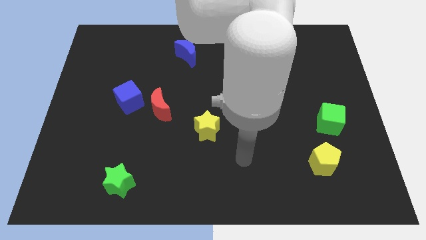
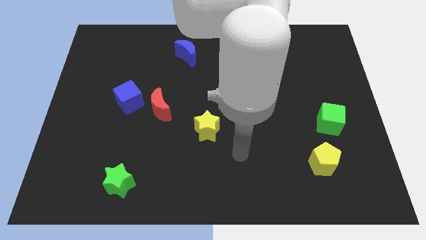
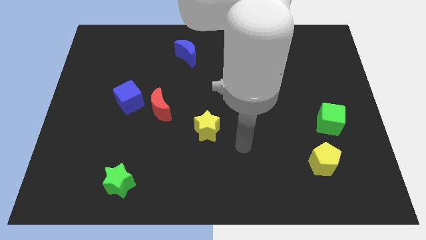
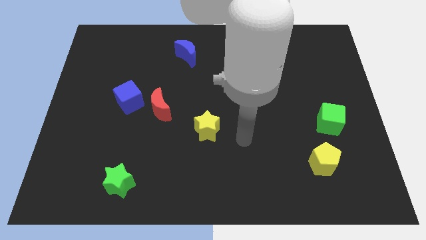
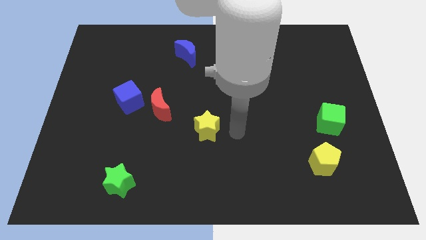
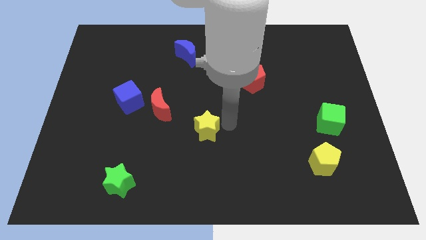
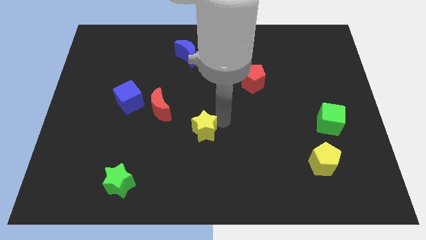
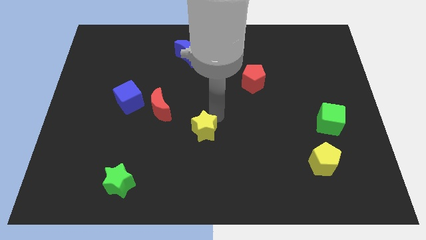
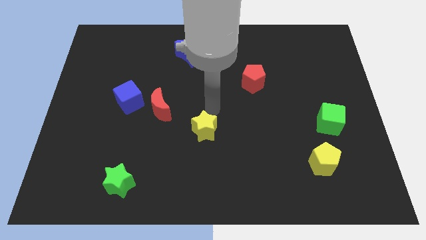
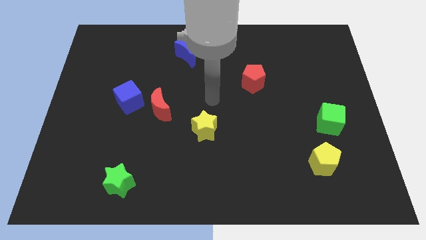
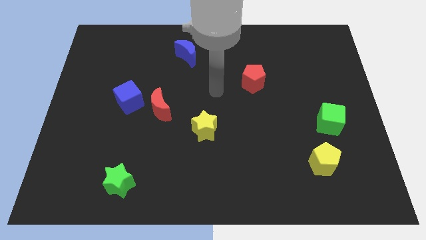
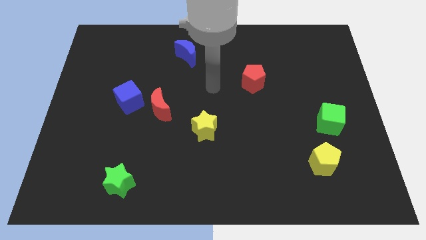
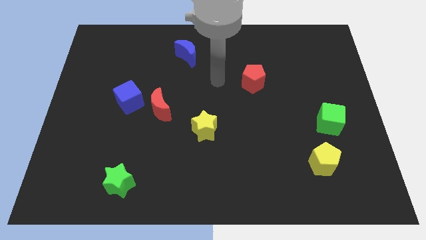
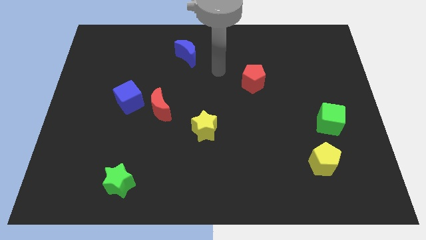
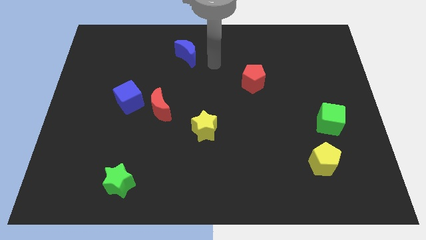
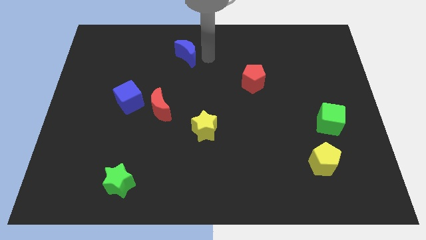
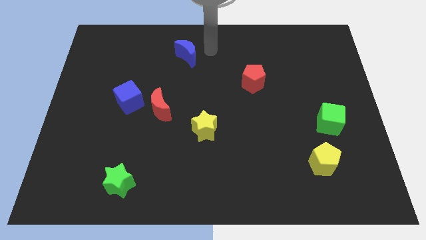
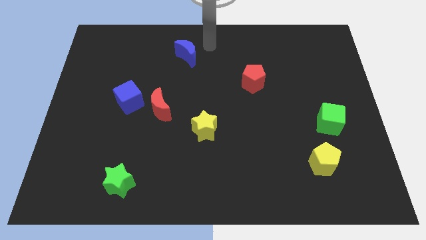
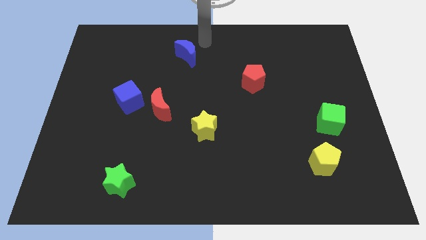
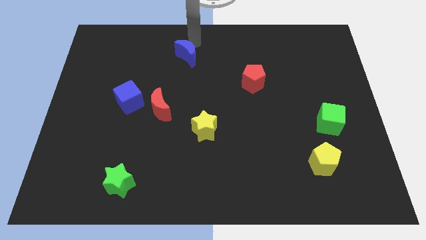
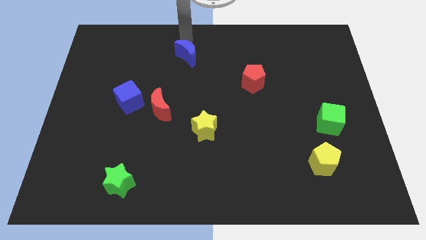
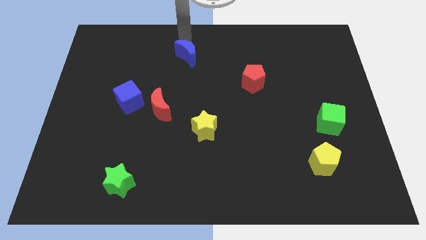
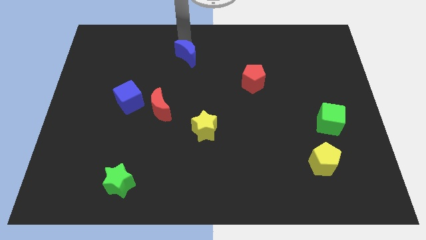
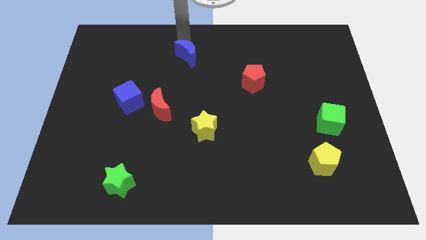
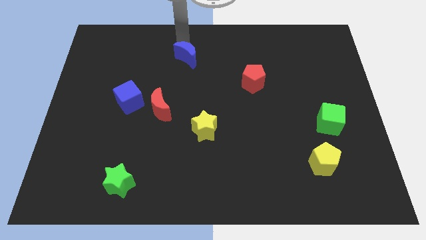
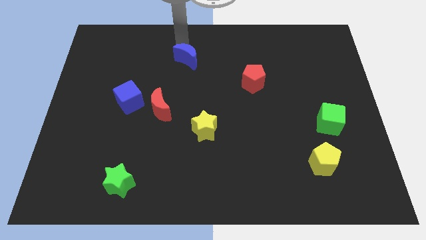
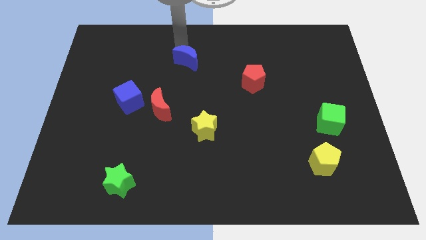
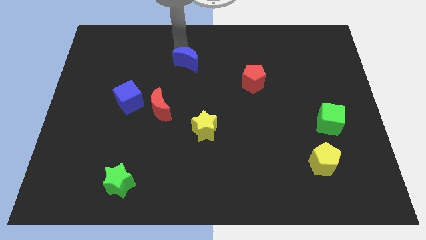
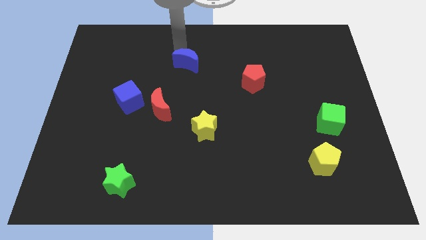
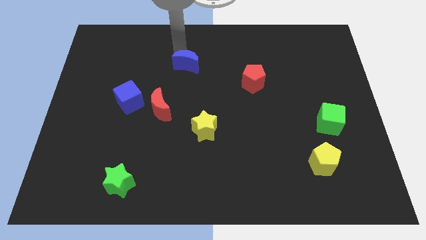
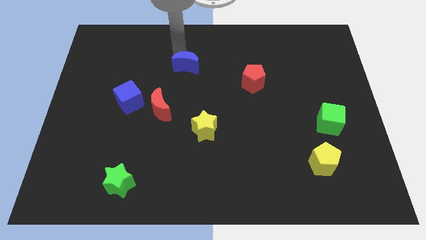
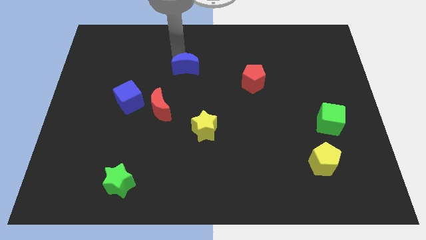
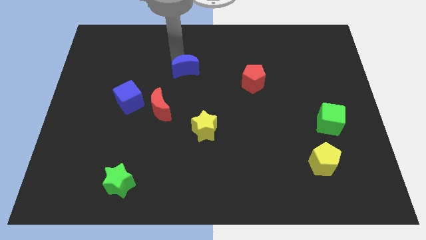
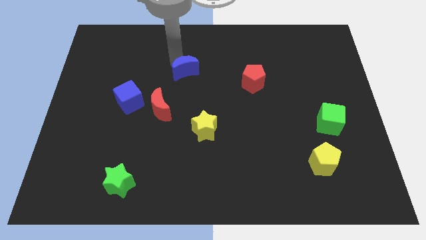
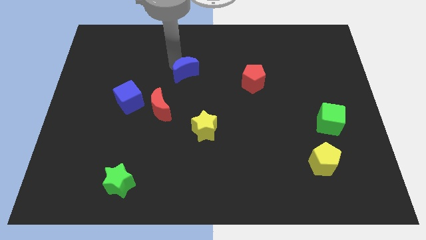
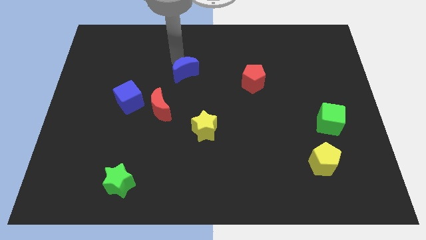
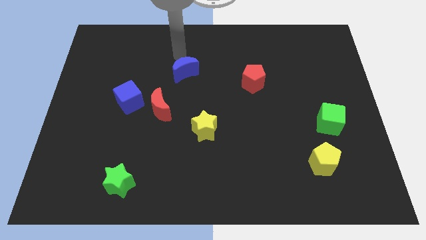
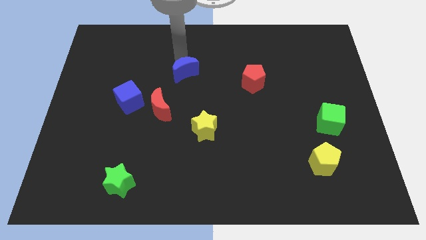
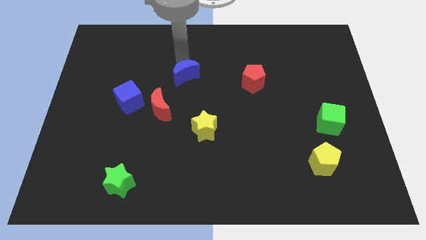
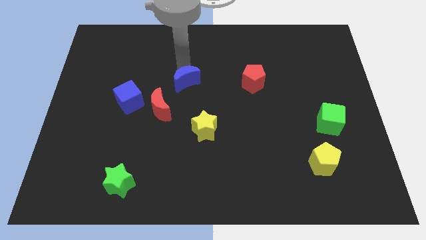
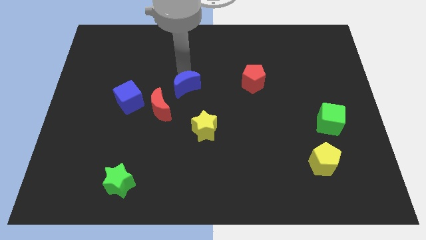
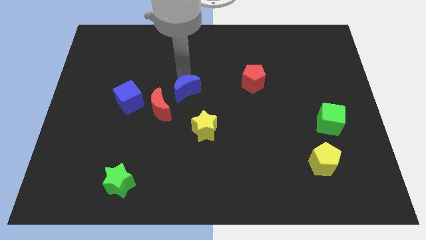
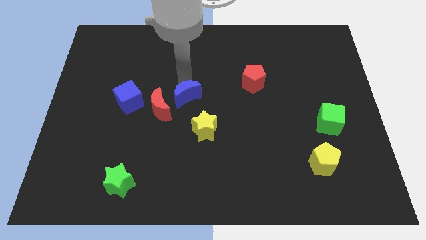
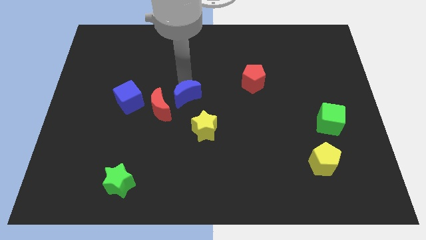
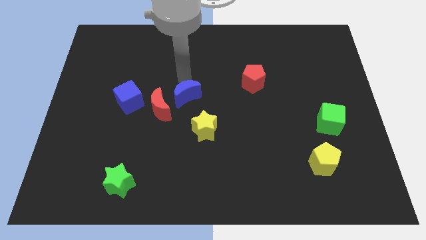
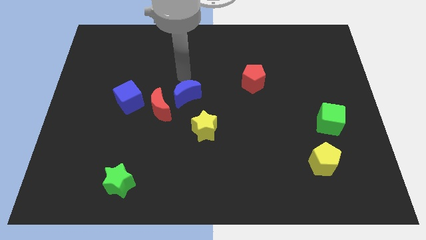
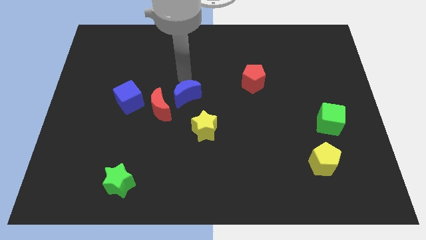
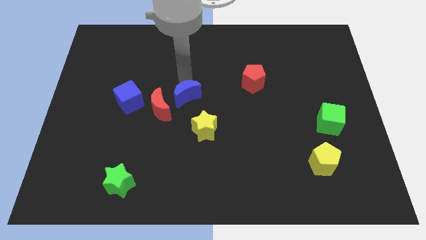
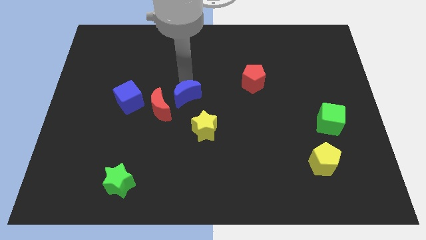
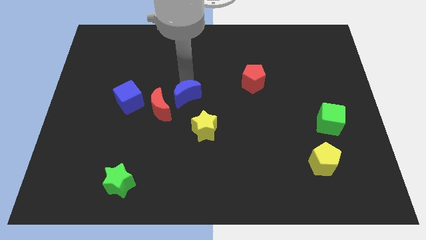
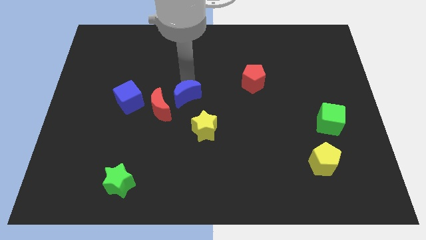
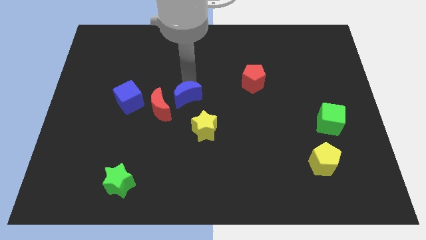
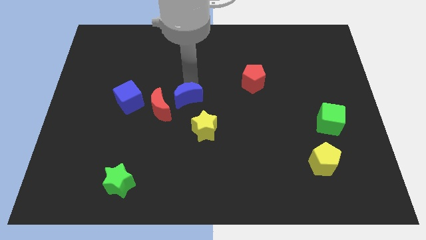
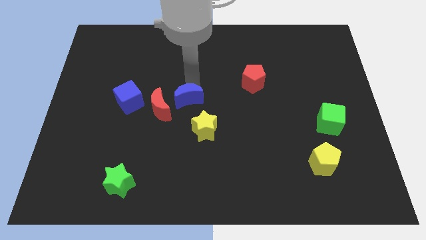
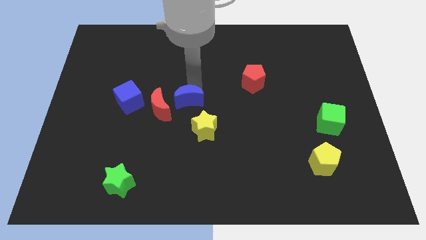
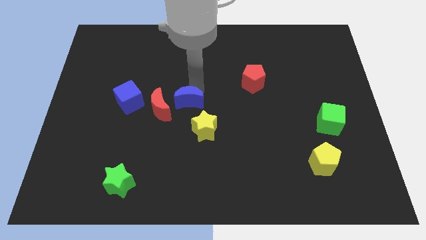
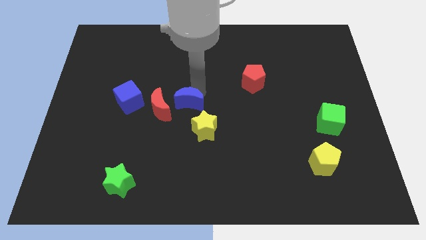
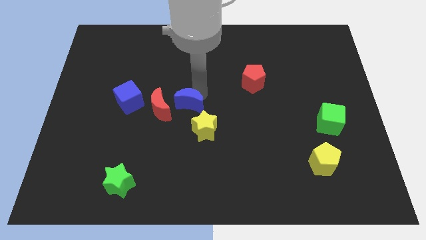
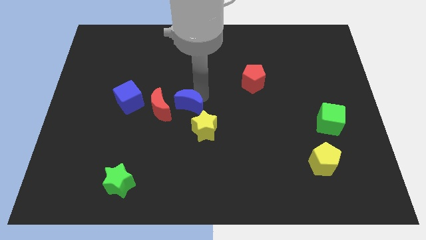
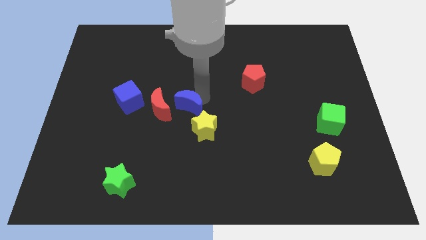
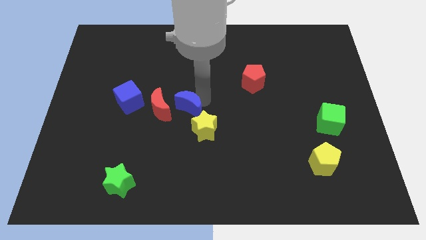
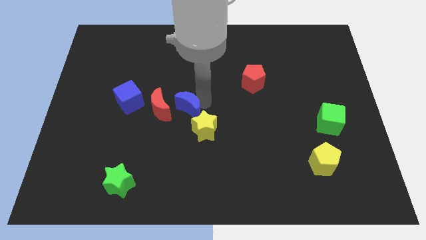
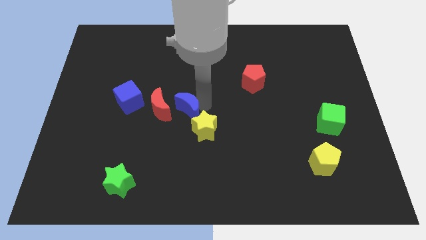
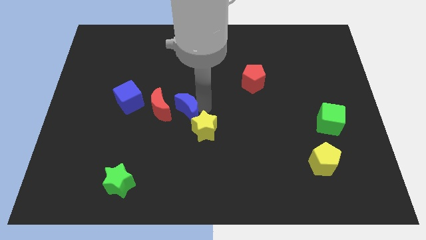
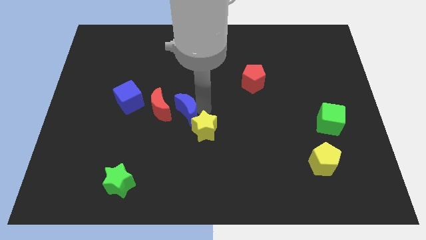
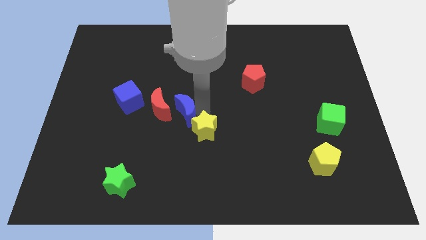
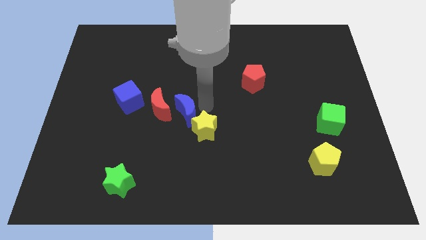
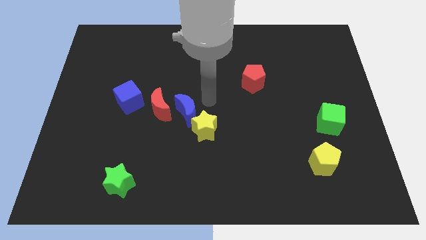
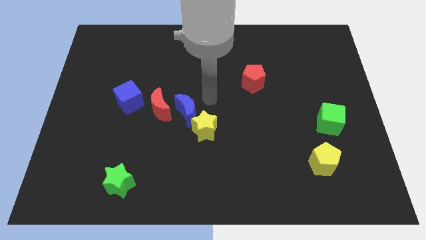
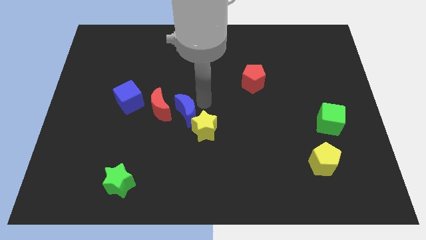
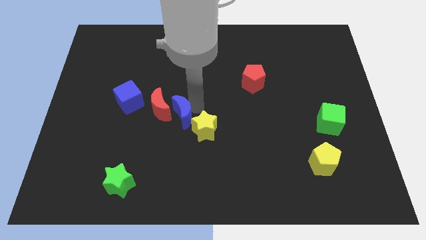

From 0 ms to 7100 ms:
put the blue moon left of the yellow star

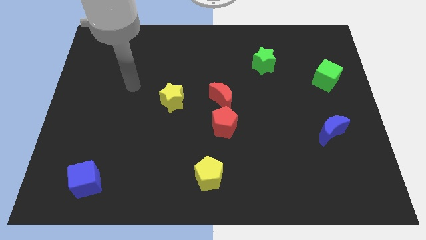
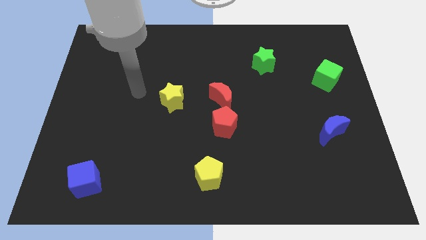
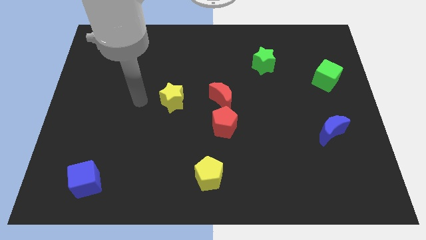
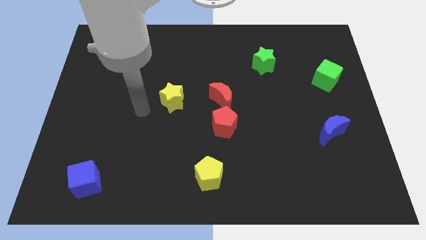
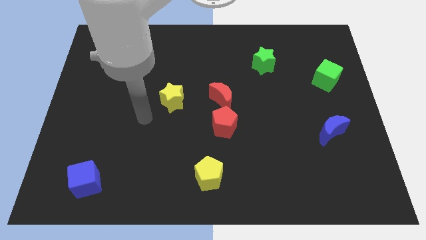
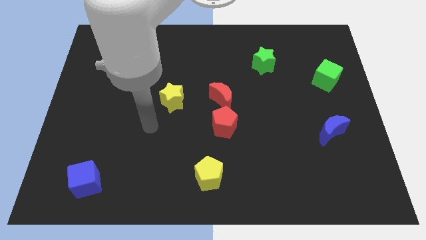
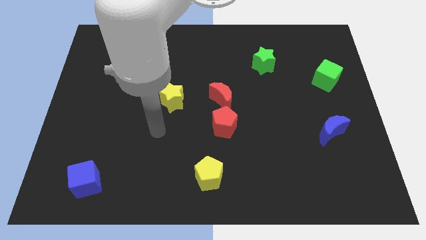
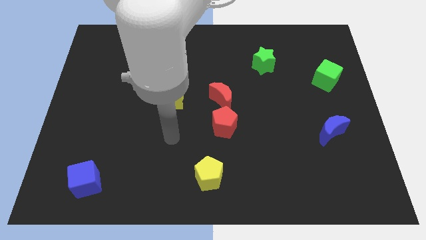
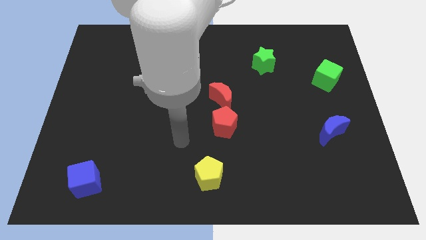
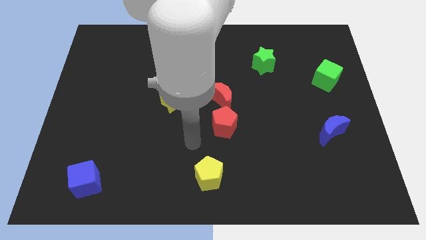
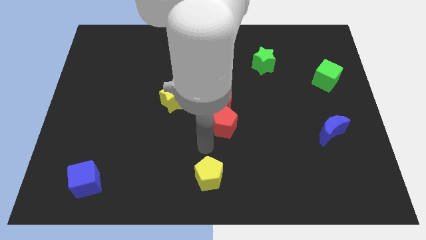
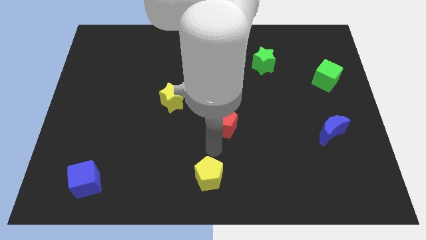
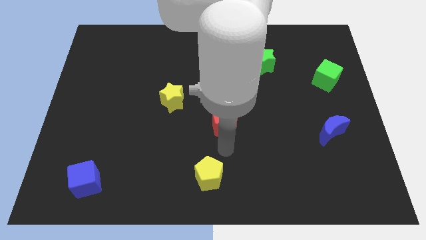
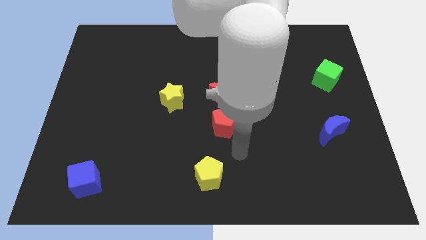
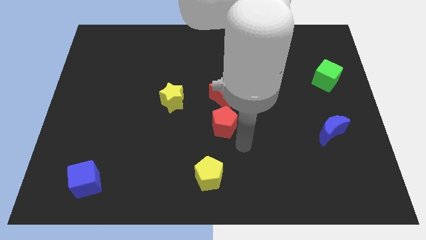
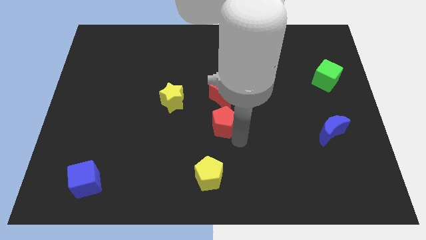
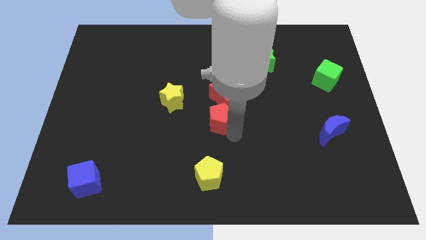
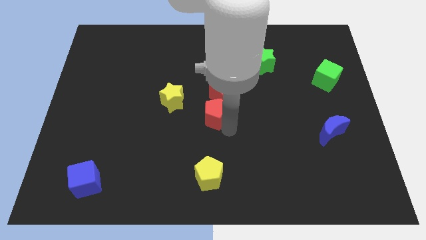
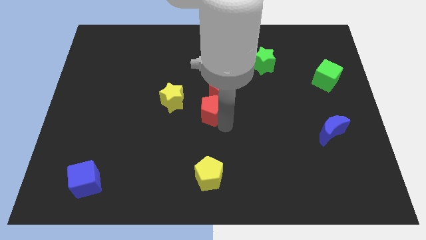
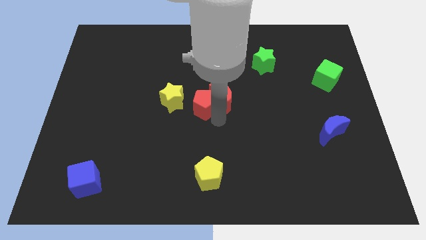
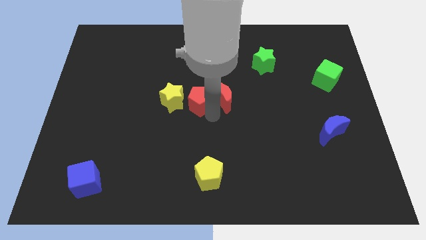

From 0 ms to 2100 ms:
push the red pentagon to the top right side of the yellow star
